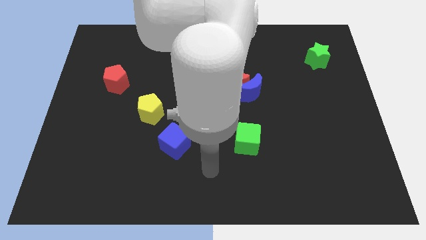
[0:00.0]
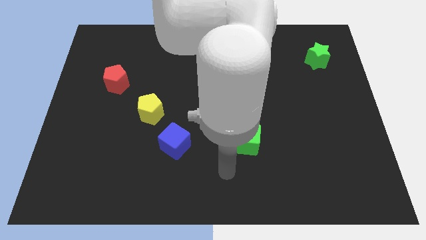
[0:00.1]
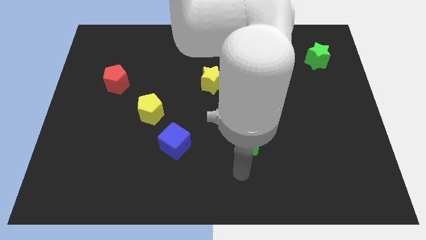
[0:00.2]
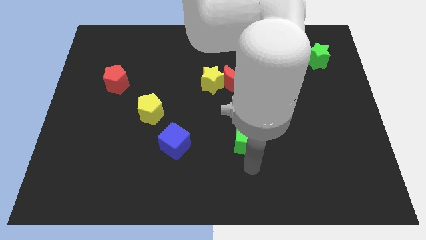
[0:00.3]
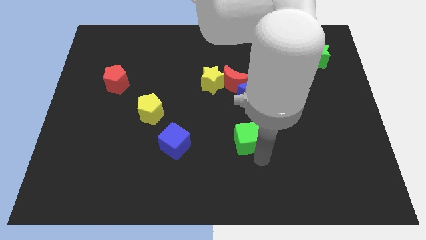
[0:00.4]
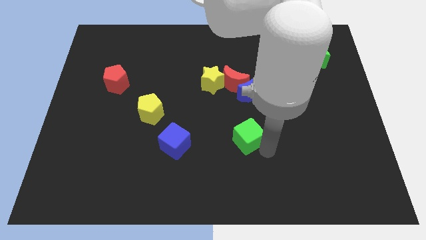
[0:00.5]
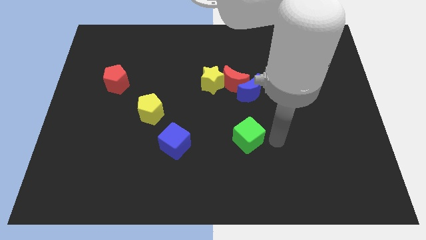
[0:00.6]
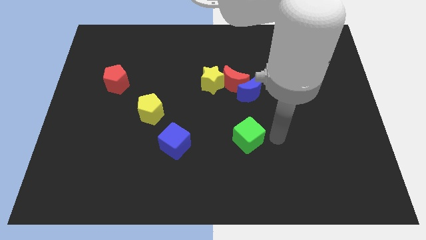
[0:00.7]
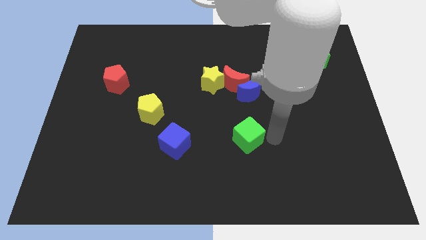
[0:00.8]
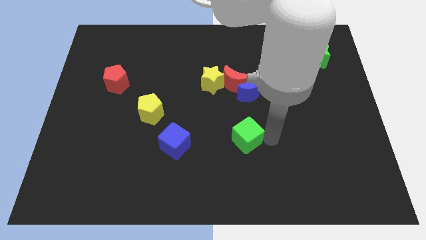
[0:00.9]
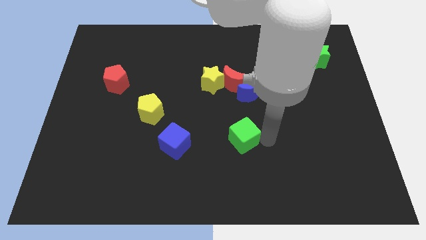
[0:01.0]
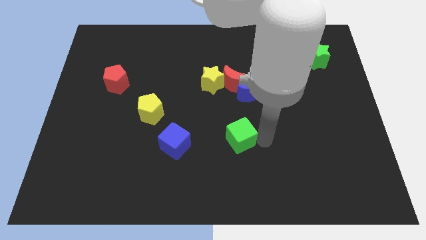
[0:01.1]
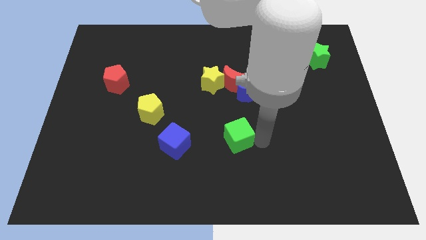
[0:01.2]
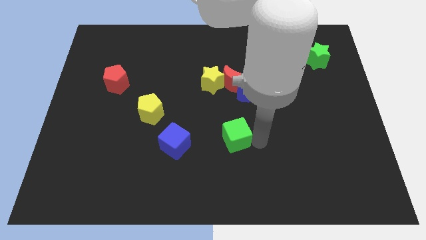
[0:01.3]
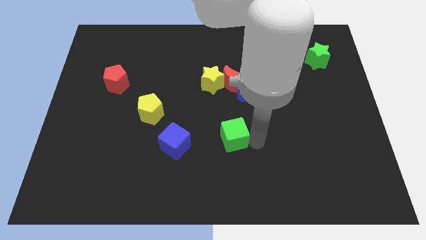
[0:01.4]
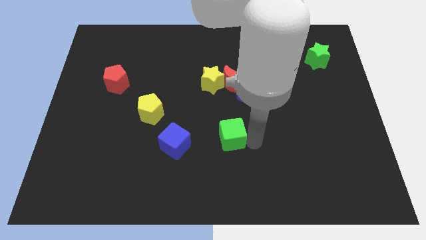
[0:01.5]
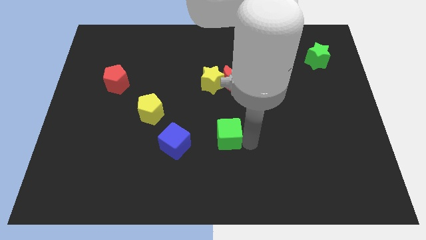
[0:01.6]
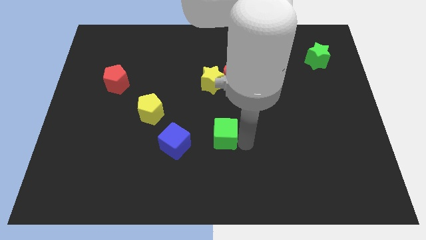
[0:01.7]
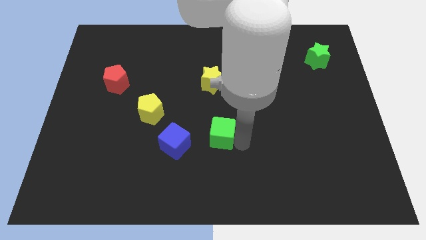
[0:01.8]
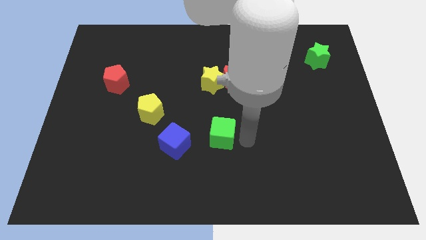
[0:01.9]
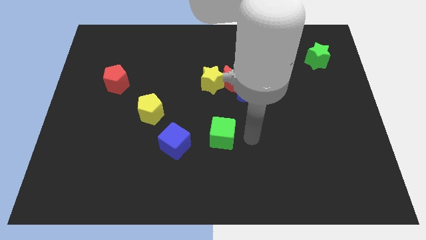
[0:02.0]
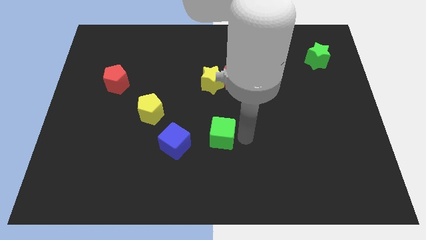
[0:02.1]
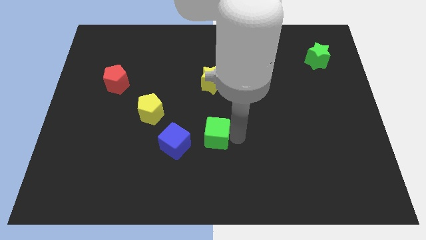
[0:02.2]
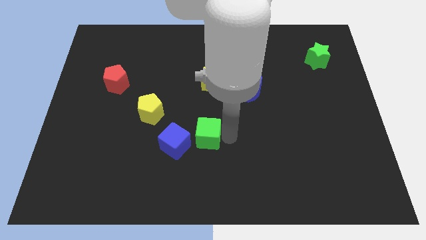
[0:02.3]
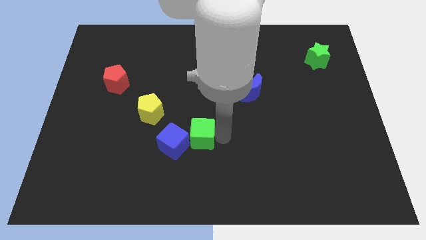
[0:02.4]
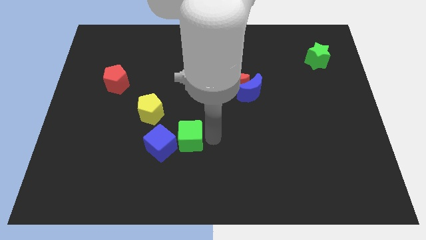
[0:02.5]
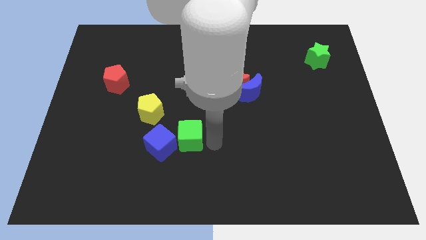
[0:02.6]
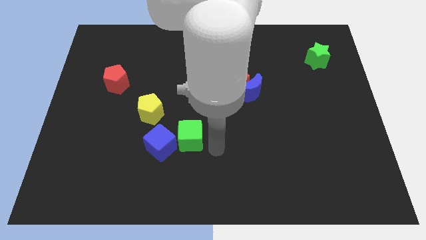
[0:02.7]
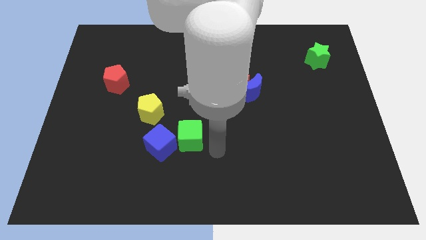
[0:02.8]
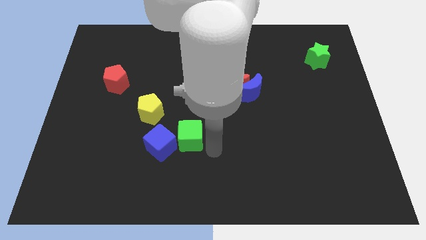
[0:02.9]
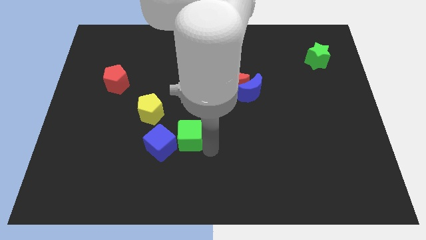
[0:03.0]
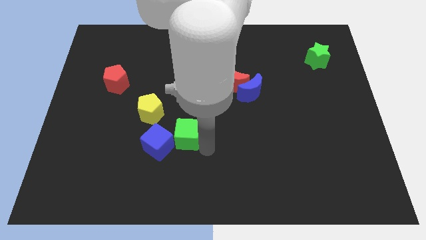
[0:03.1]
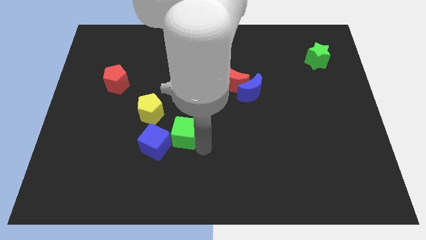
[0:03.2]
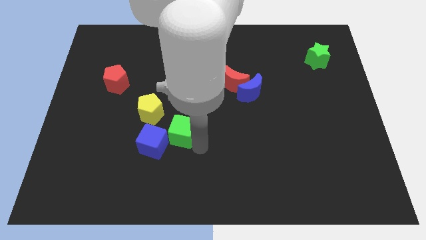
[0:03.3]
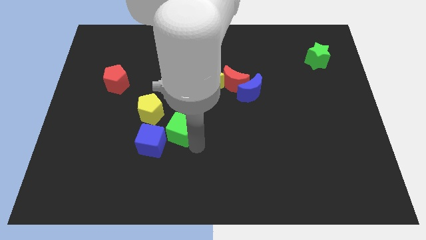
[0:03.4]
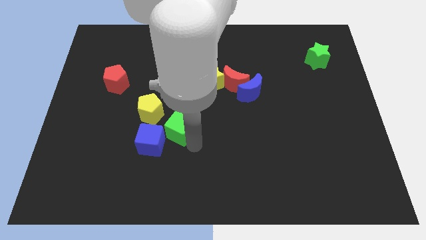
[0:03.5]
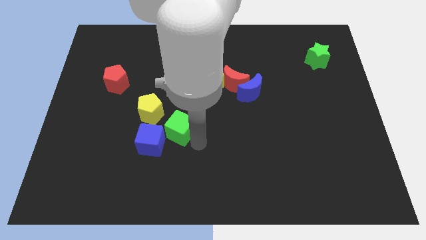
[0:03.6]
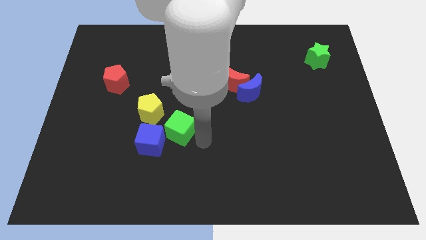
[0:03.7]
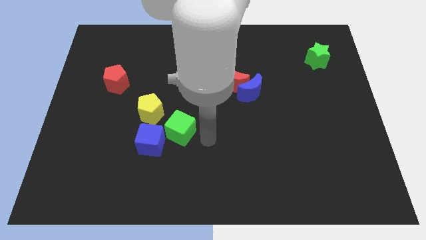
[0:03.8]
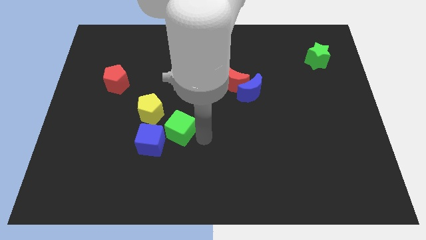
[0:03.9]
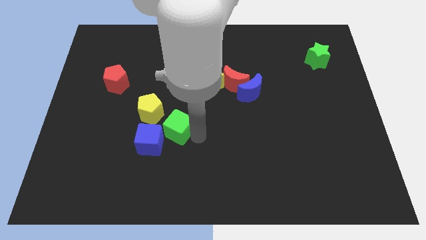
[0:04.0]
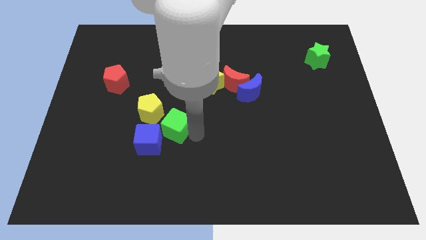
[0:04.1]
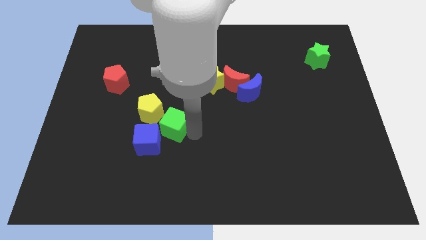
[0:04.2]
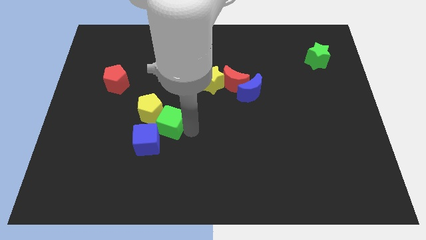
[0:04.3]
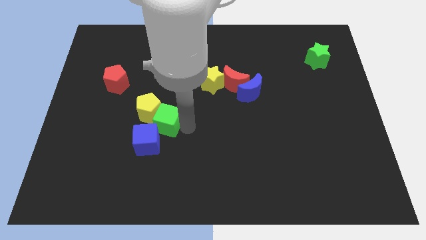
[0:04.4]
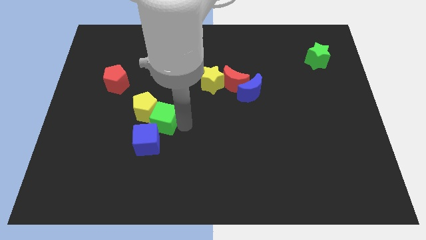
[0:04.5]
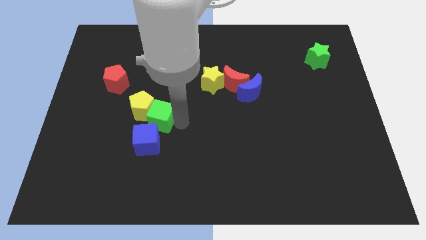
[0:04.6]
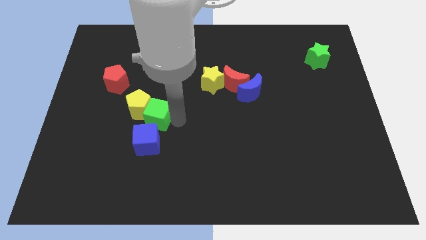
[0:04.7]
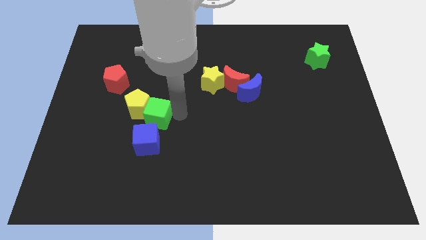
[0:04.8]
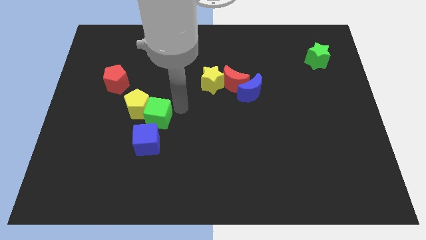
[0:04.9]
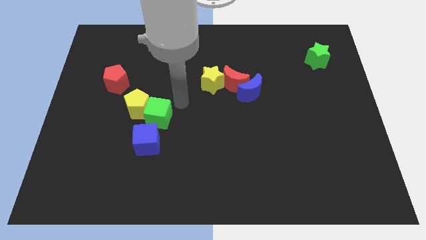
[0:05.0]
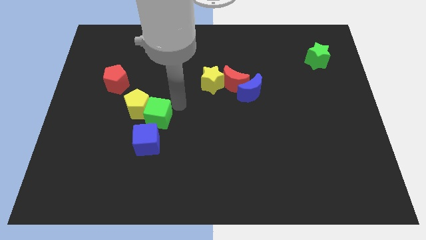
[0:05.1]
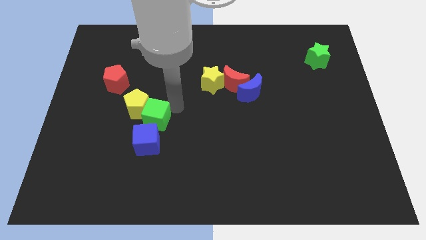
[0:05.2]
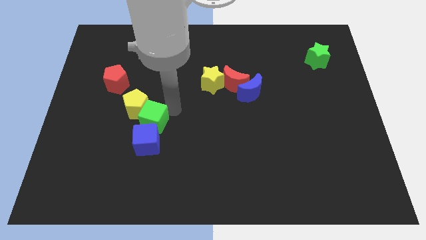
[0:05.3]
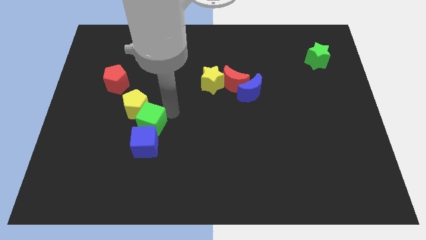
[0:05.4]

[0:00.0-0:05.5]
move the green cube to the left

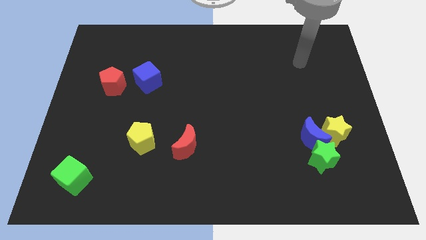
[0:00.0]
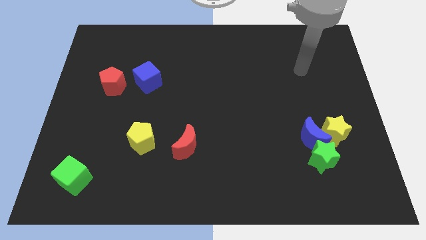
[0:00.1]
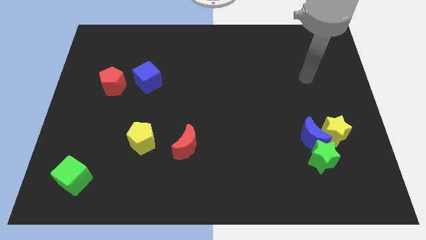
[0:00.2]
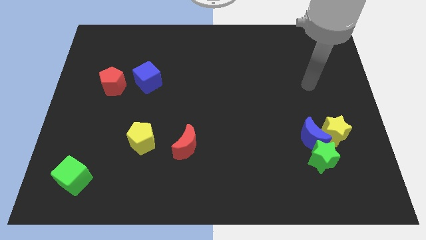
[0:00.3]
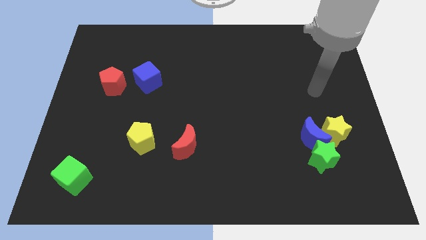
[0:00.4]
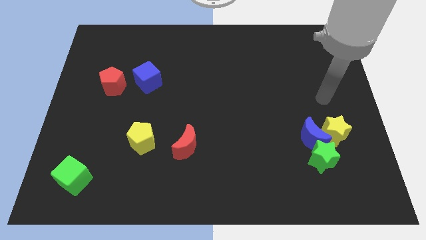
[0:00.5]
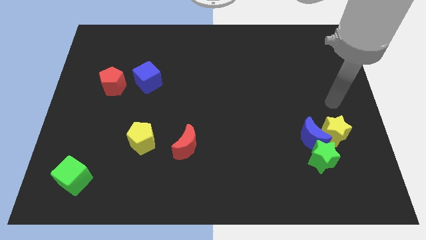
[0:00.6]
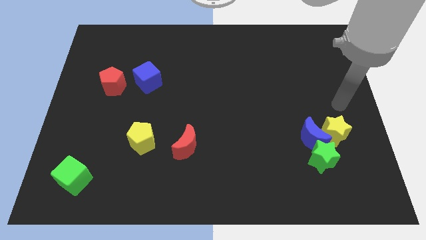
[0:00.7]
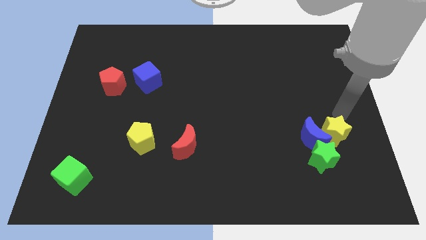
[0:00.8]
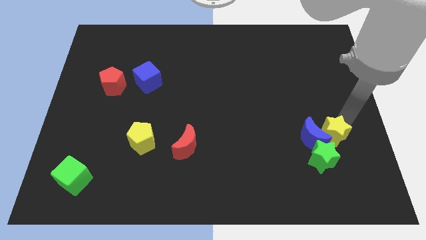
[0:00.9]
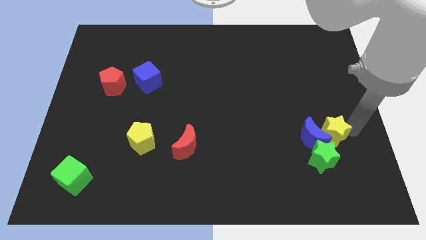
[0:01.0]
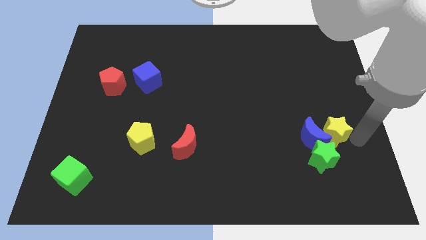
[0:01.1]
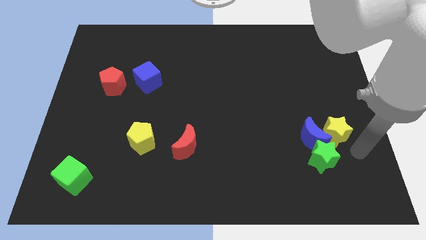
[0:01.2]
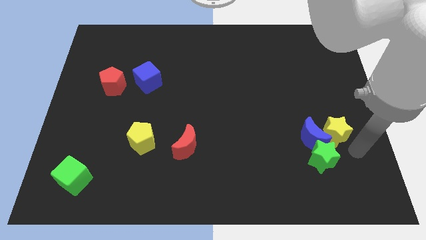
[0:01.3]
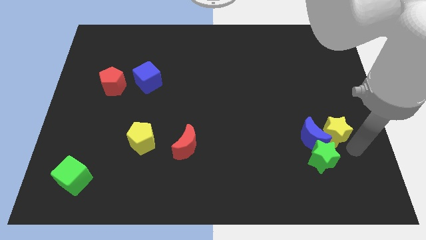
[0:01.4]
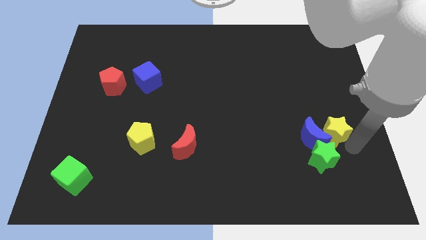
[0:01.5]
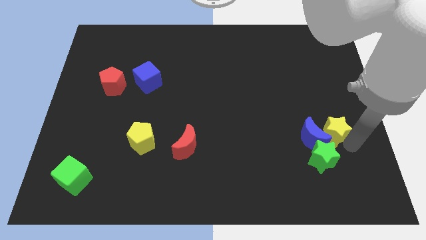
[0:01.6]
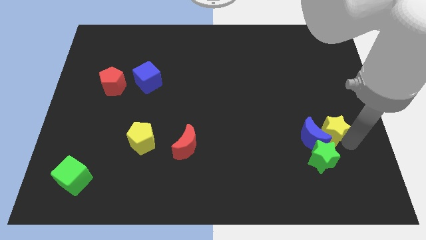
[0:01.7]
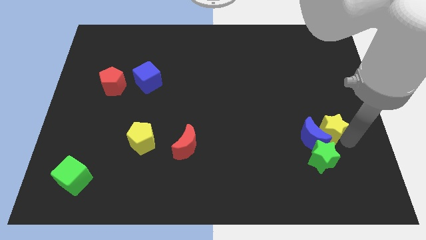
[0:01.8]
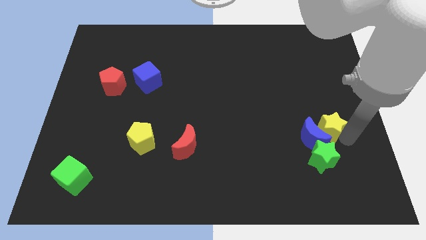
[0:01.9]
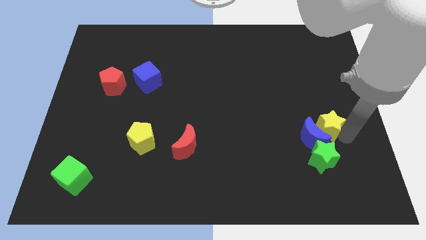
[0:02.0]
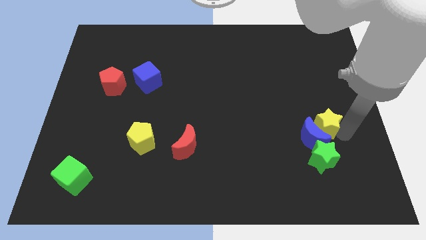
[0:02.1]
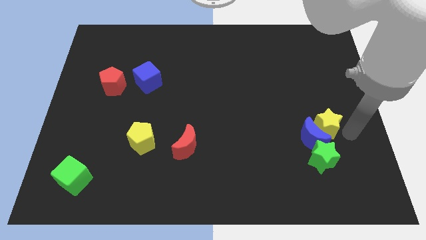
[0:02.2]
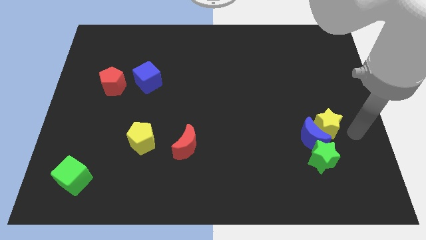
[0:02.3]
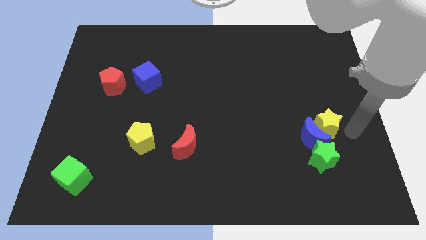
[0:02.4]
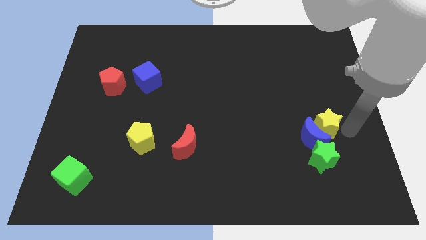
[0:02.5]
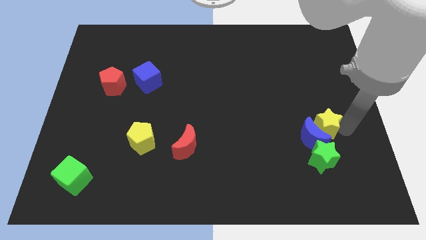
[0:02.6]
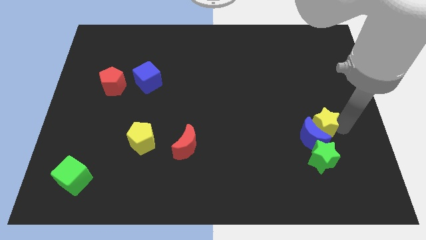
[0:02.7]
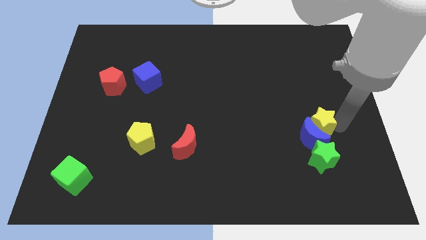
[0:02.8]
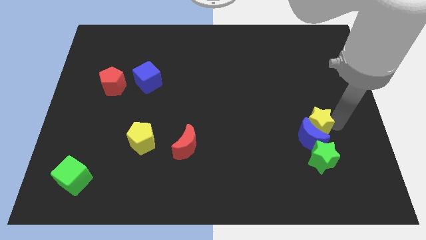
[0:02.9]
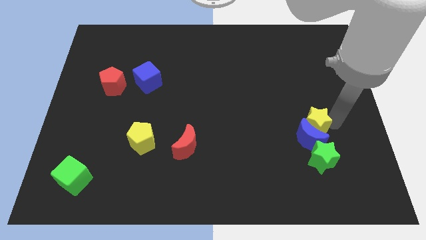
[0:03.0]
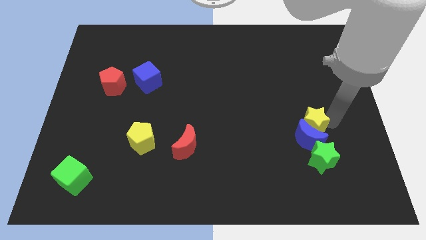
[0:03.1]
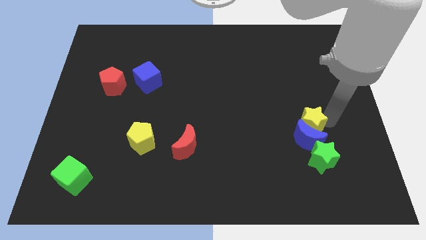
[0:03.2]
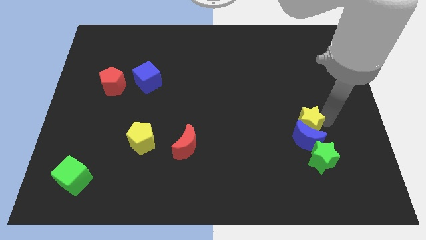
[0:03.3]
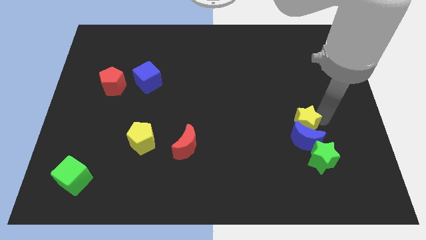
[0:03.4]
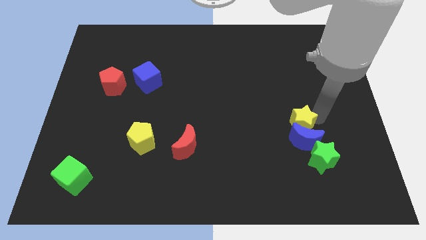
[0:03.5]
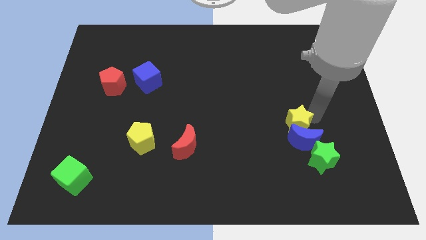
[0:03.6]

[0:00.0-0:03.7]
slide the yellow star slightly left
